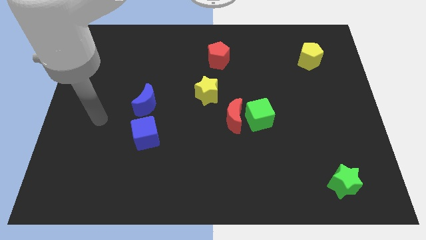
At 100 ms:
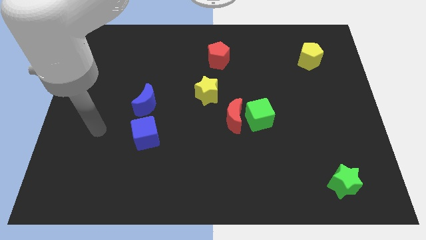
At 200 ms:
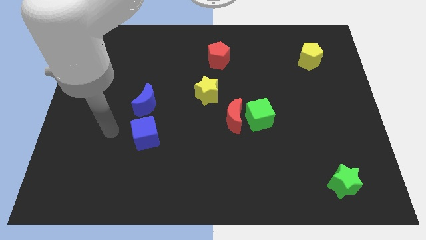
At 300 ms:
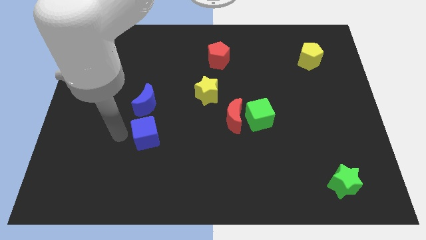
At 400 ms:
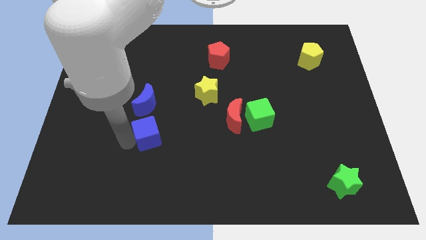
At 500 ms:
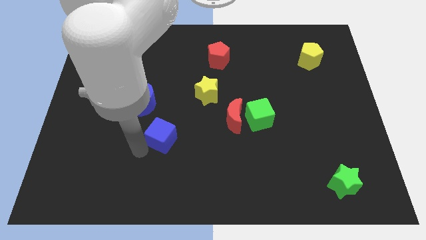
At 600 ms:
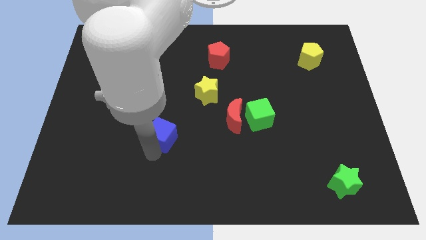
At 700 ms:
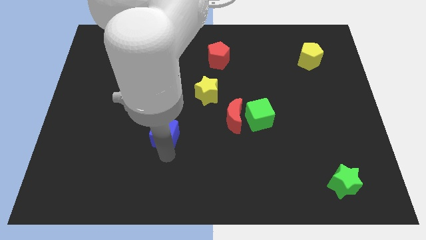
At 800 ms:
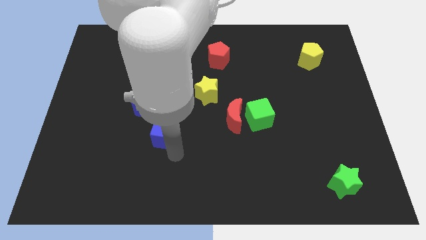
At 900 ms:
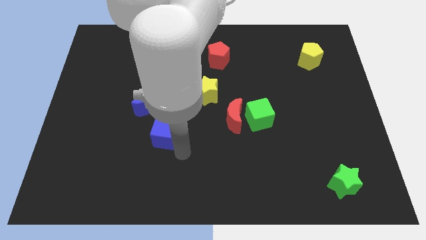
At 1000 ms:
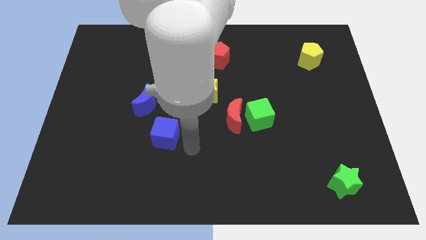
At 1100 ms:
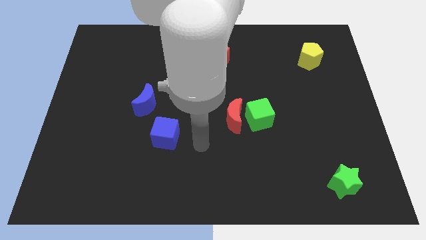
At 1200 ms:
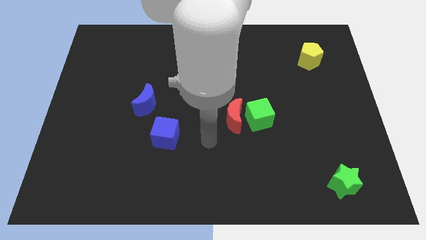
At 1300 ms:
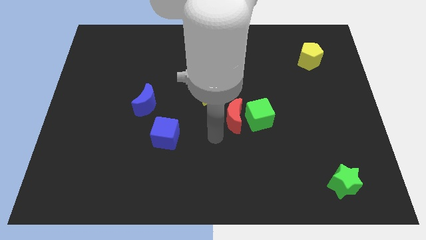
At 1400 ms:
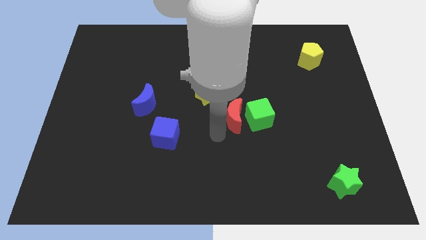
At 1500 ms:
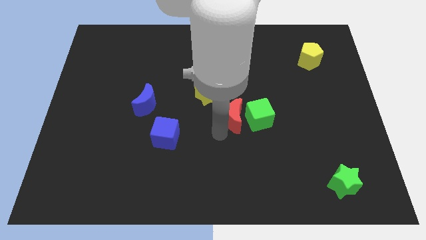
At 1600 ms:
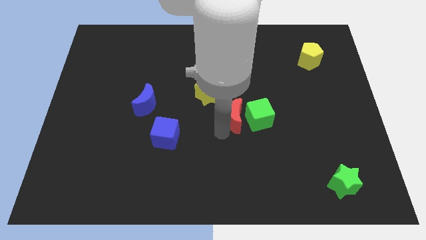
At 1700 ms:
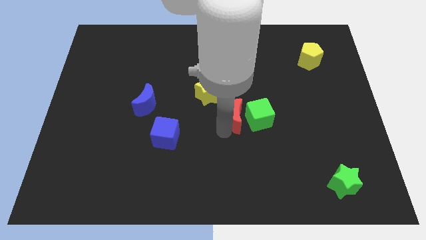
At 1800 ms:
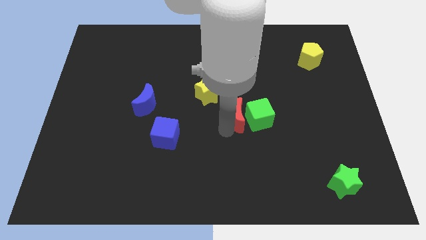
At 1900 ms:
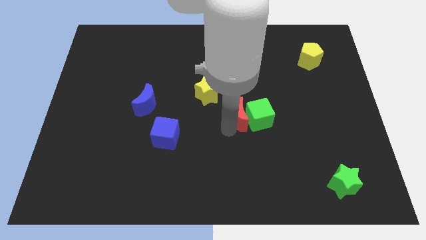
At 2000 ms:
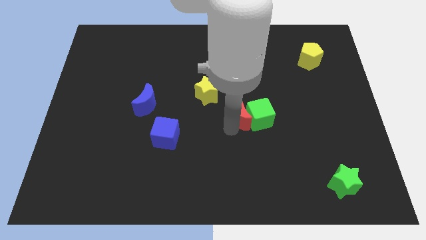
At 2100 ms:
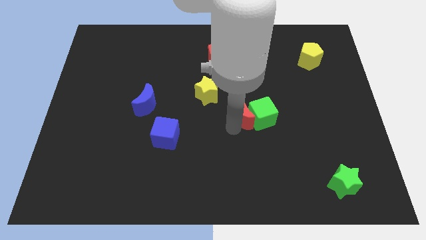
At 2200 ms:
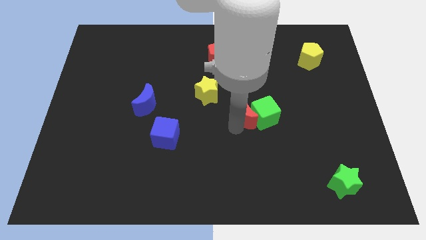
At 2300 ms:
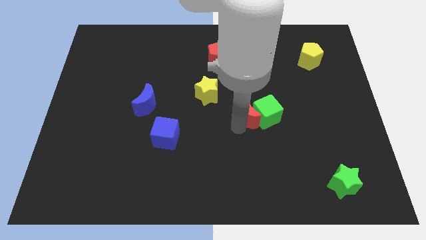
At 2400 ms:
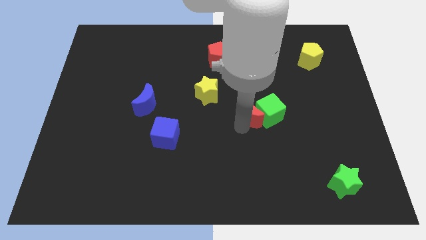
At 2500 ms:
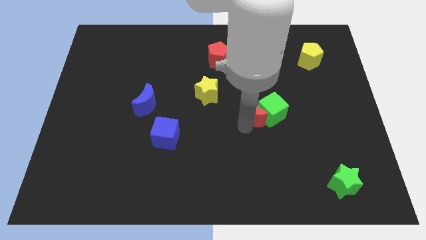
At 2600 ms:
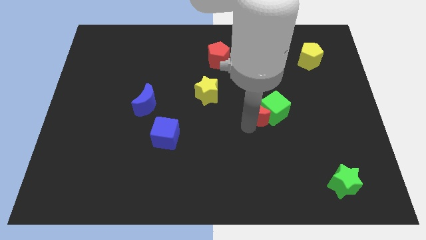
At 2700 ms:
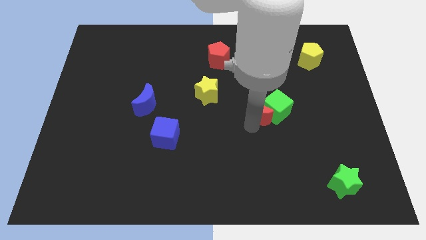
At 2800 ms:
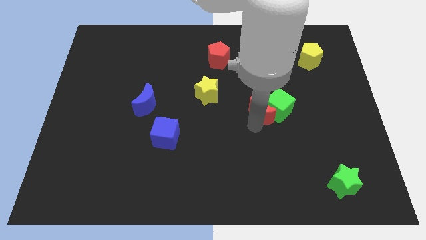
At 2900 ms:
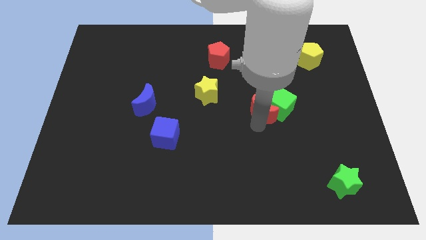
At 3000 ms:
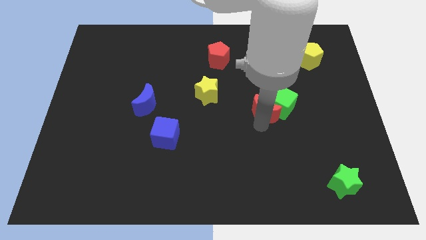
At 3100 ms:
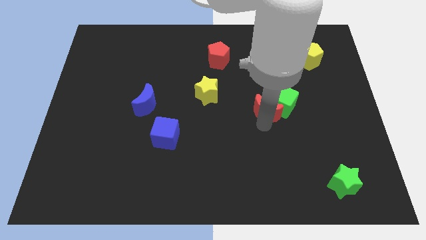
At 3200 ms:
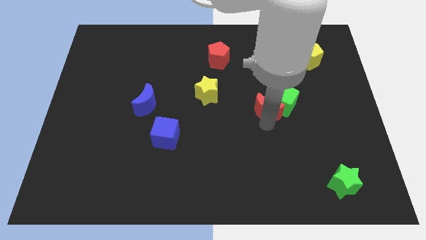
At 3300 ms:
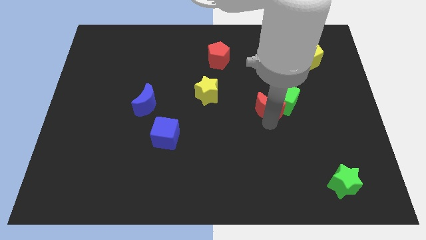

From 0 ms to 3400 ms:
push the red moon a little bit upwards and to the right diagonally

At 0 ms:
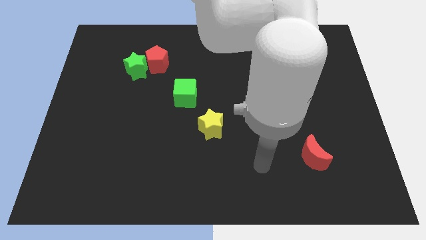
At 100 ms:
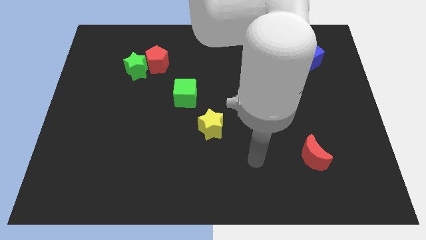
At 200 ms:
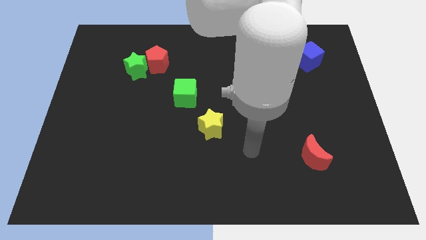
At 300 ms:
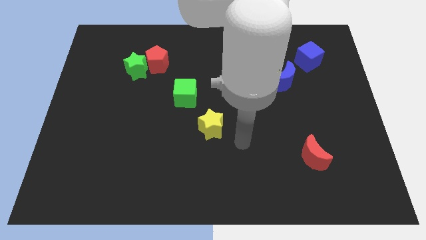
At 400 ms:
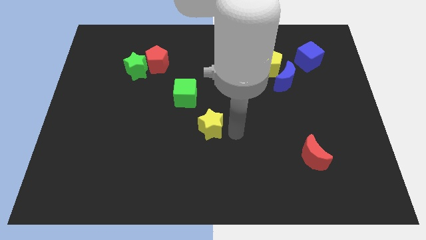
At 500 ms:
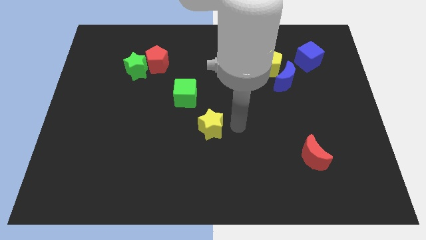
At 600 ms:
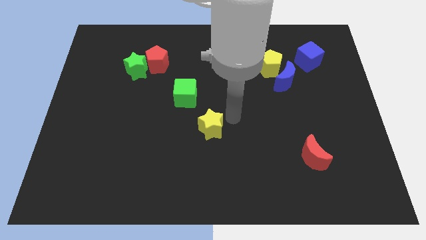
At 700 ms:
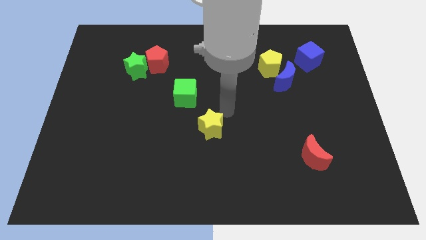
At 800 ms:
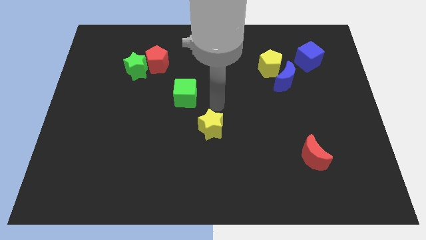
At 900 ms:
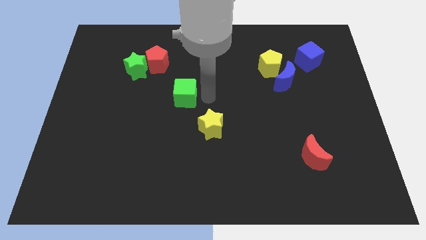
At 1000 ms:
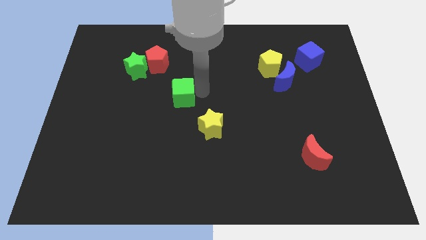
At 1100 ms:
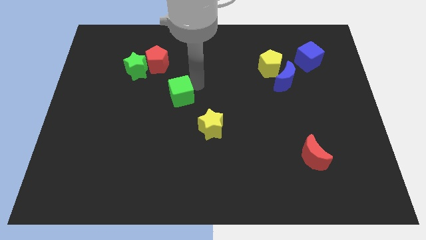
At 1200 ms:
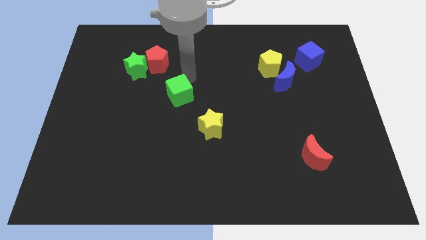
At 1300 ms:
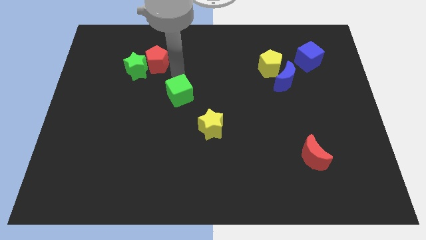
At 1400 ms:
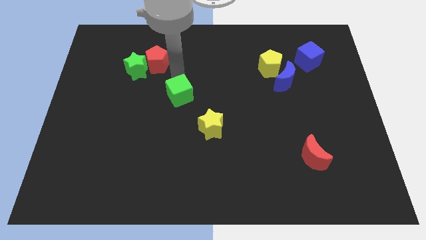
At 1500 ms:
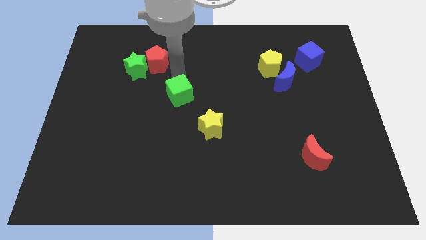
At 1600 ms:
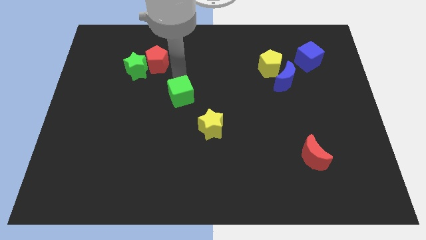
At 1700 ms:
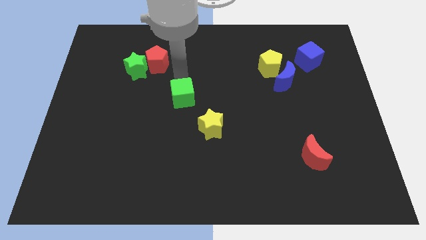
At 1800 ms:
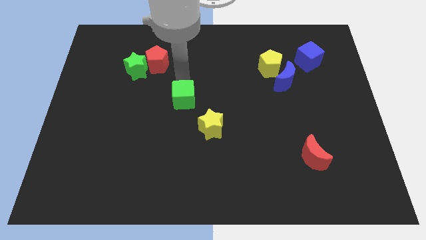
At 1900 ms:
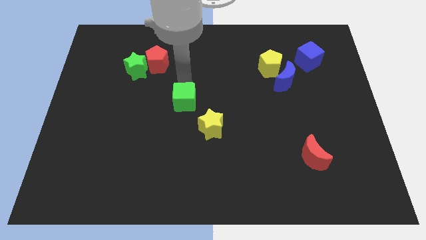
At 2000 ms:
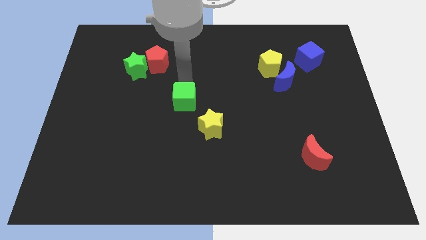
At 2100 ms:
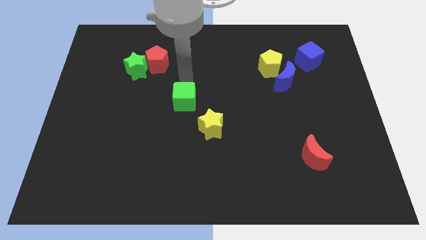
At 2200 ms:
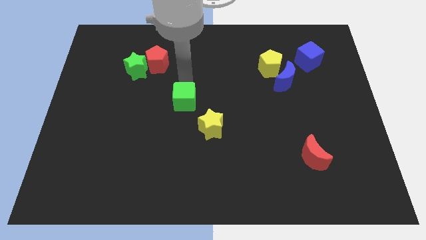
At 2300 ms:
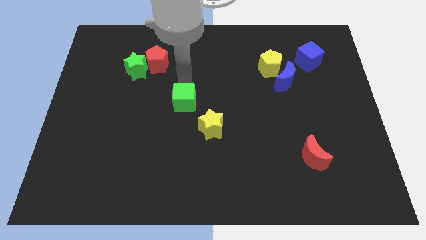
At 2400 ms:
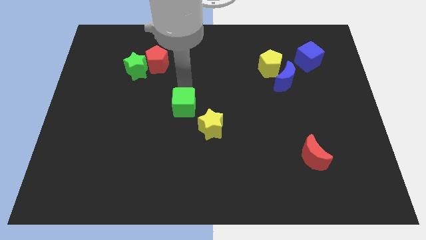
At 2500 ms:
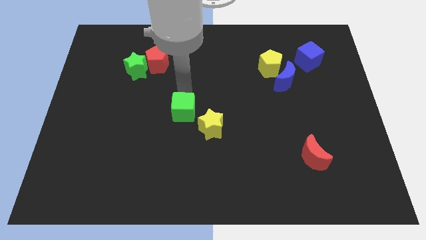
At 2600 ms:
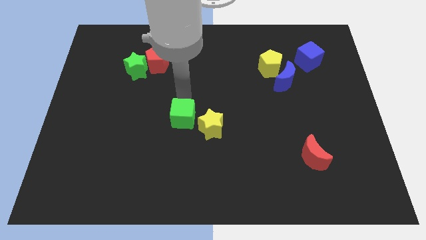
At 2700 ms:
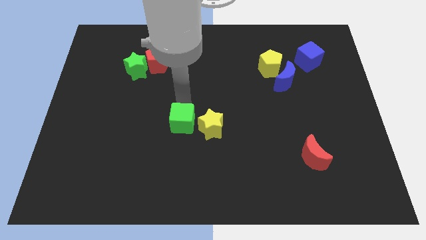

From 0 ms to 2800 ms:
slightly slide the green cube downwards

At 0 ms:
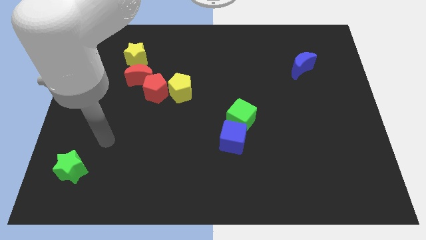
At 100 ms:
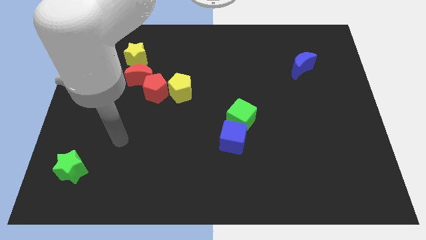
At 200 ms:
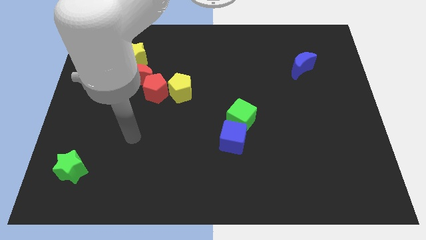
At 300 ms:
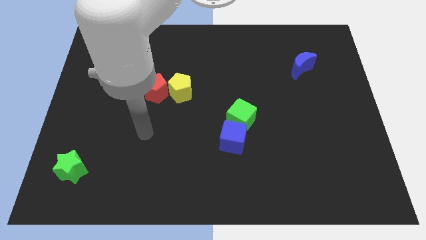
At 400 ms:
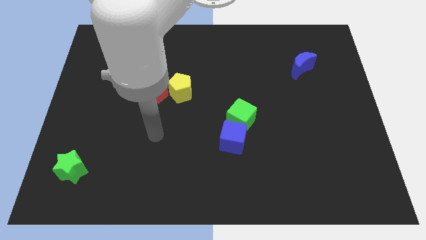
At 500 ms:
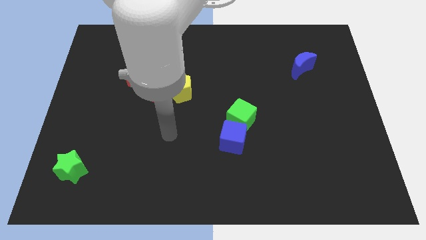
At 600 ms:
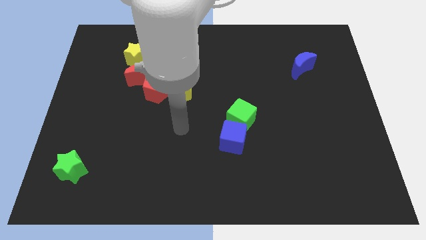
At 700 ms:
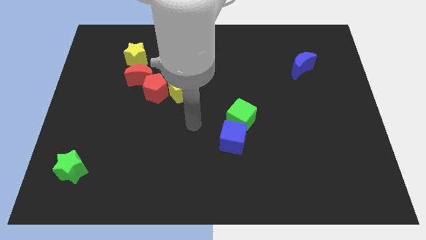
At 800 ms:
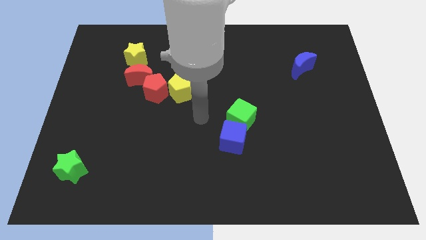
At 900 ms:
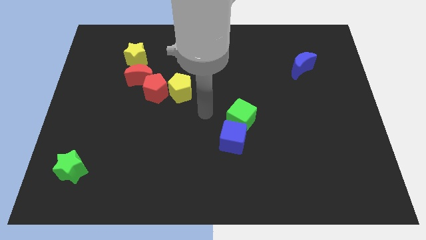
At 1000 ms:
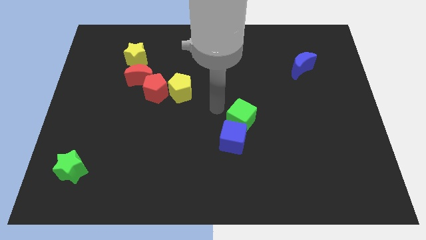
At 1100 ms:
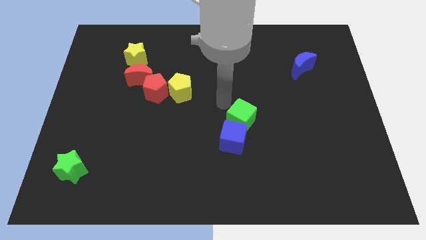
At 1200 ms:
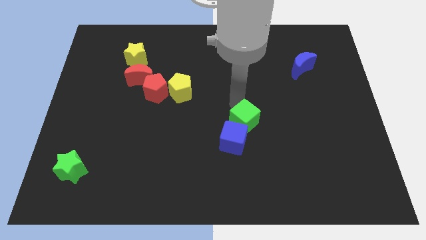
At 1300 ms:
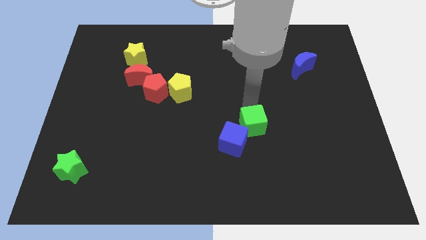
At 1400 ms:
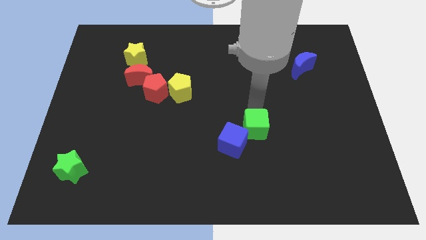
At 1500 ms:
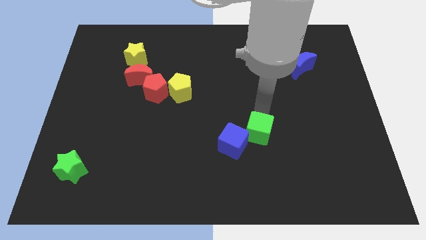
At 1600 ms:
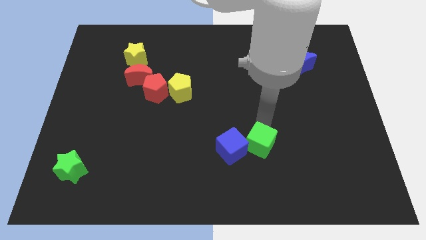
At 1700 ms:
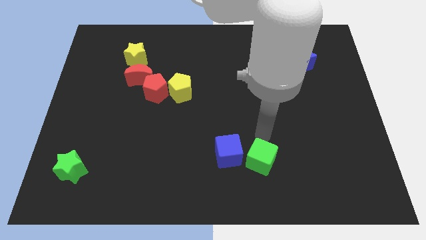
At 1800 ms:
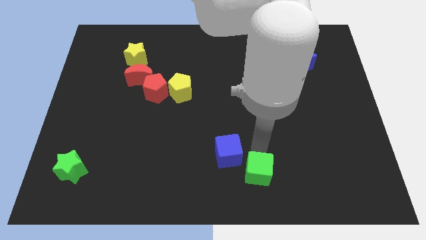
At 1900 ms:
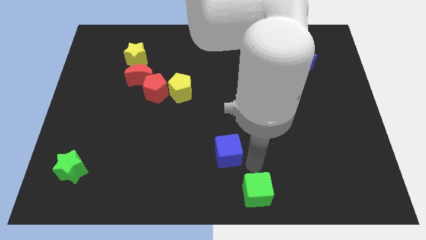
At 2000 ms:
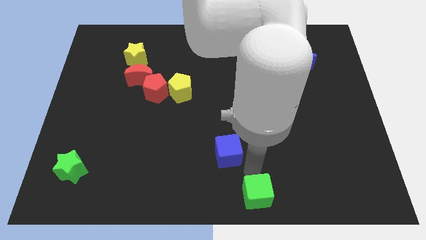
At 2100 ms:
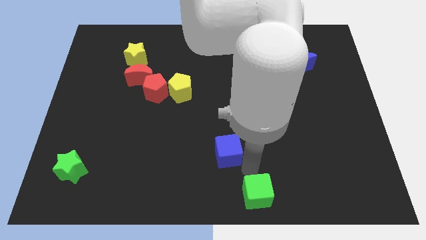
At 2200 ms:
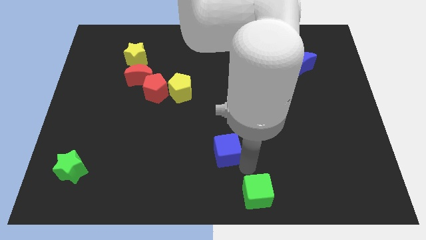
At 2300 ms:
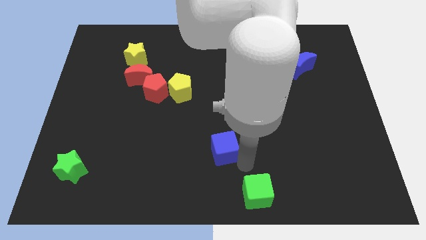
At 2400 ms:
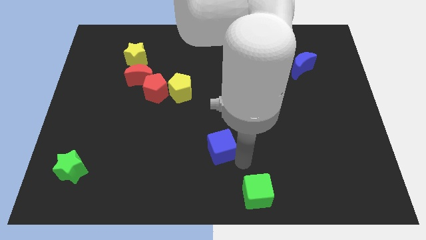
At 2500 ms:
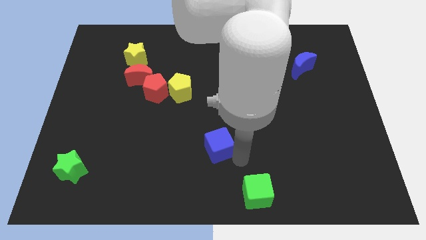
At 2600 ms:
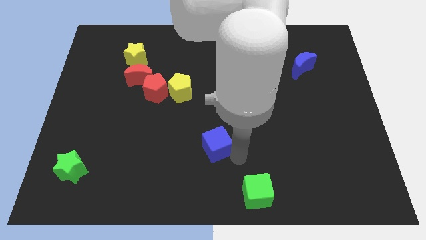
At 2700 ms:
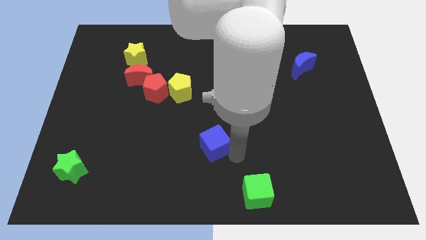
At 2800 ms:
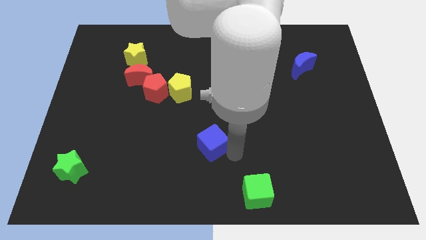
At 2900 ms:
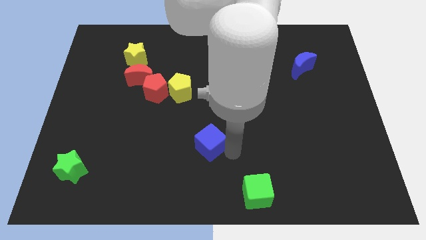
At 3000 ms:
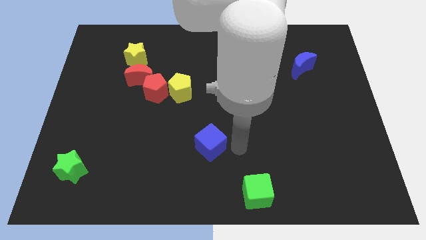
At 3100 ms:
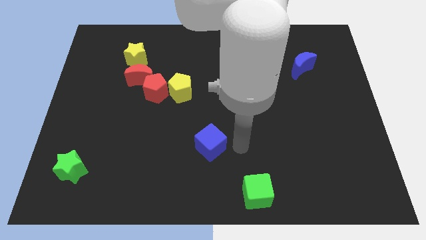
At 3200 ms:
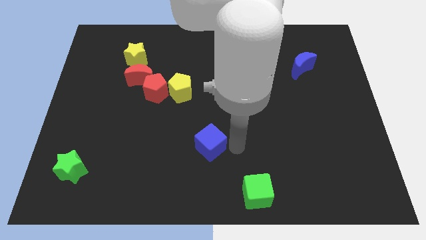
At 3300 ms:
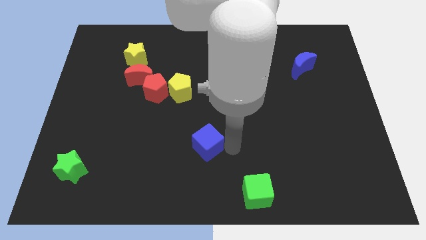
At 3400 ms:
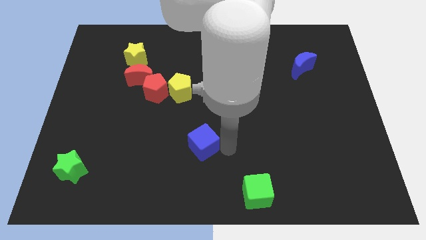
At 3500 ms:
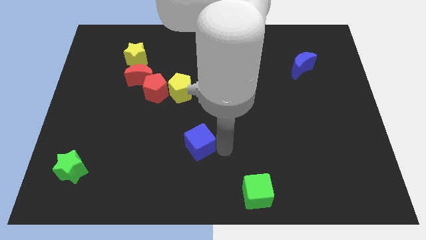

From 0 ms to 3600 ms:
slightly push the blue cube left
